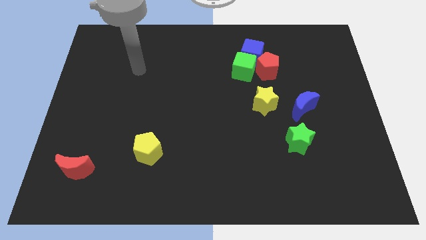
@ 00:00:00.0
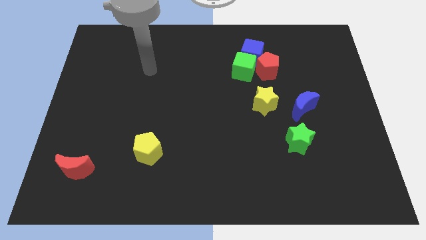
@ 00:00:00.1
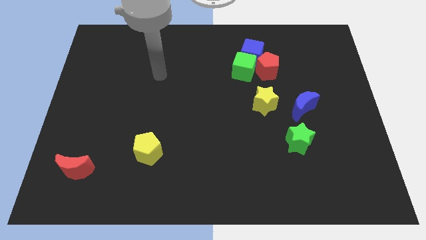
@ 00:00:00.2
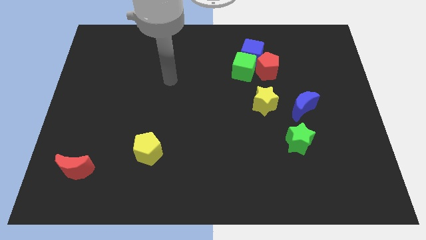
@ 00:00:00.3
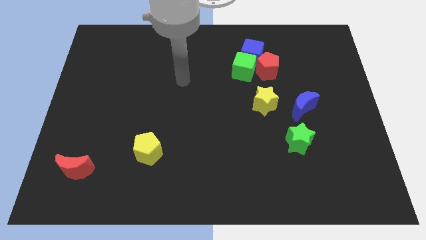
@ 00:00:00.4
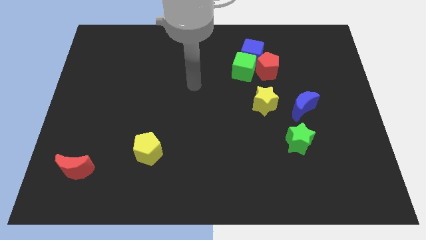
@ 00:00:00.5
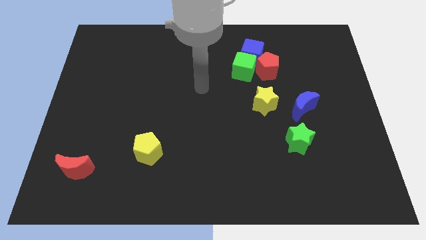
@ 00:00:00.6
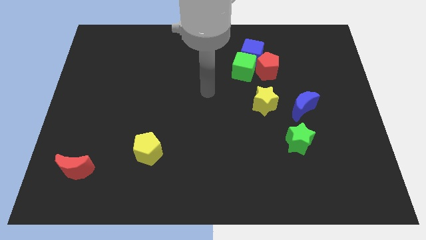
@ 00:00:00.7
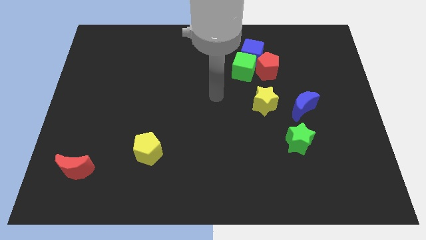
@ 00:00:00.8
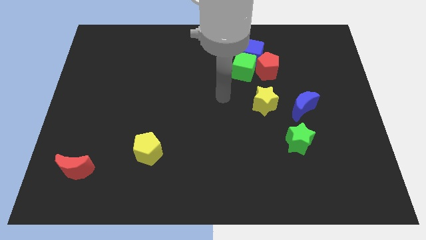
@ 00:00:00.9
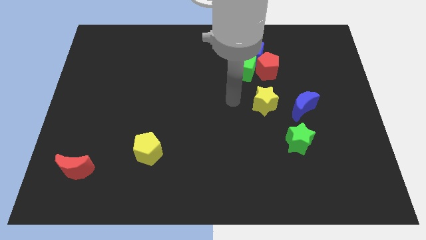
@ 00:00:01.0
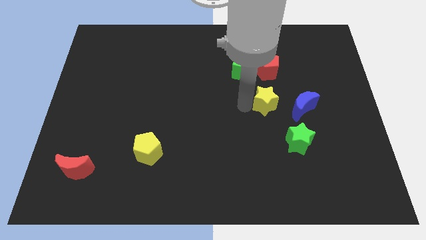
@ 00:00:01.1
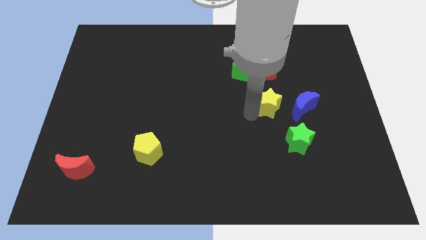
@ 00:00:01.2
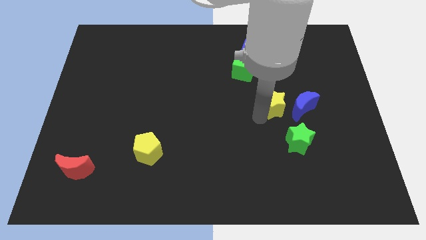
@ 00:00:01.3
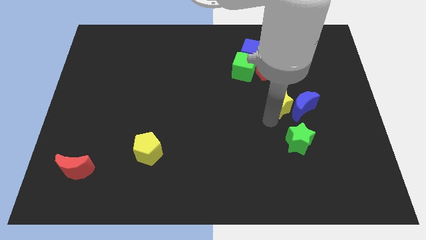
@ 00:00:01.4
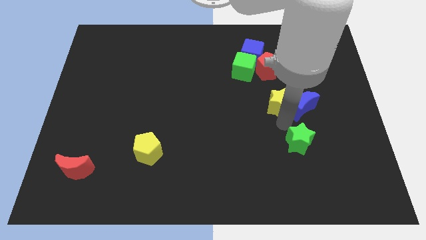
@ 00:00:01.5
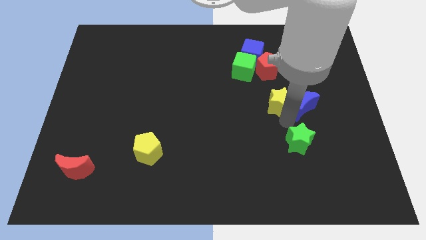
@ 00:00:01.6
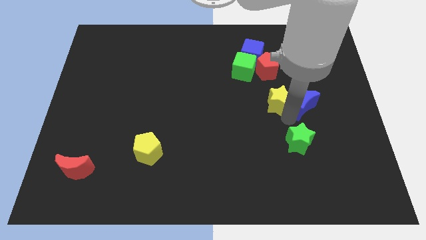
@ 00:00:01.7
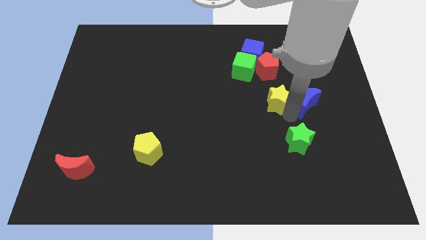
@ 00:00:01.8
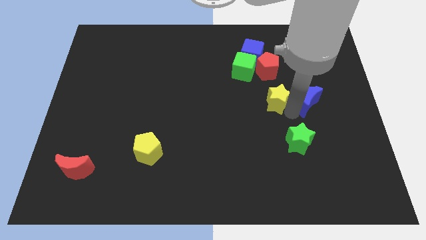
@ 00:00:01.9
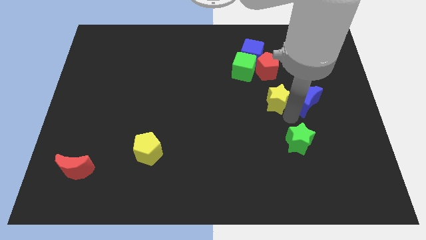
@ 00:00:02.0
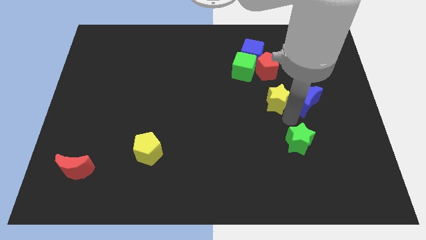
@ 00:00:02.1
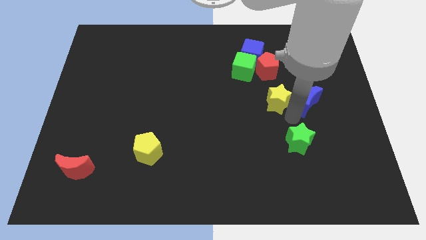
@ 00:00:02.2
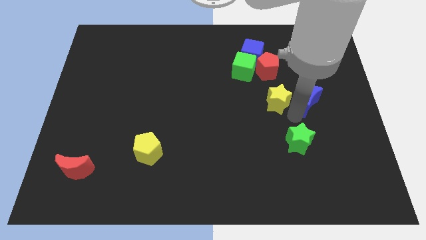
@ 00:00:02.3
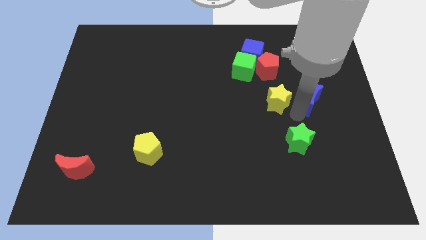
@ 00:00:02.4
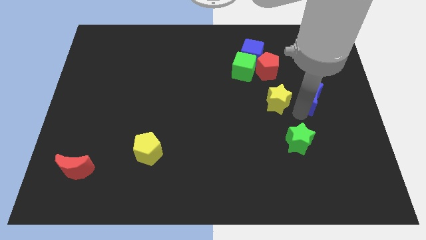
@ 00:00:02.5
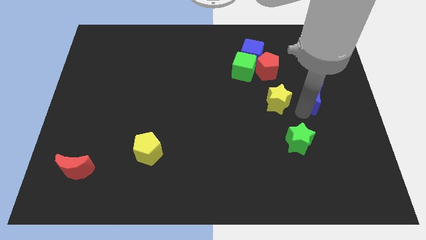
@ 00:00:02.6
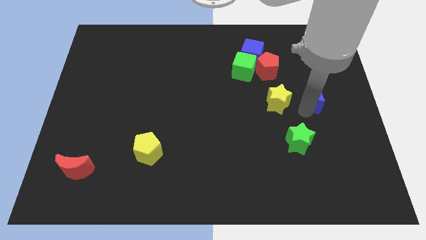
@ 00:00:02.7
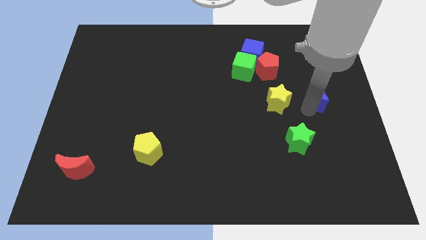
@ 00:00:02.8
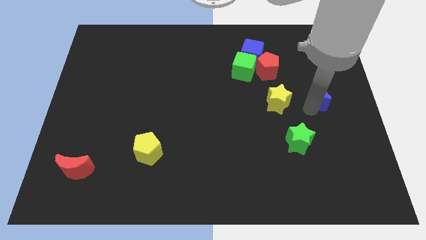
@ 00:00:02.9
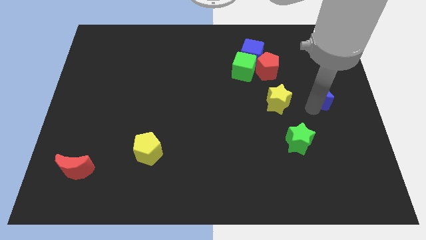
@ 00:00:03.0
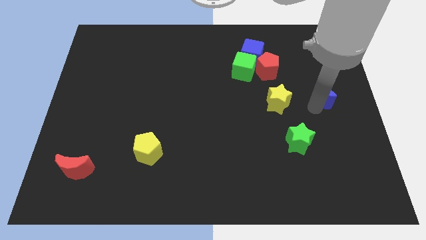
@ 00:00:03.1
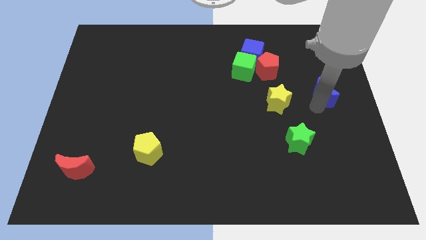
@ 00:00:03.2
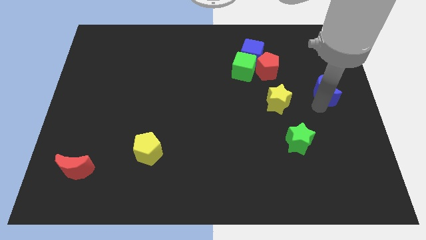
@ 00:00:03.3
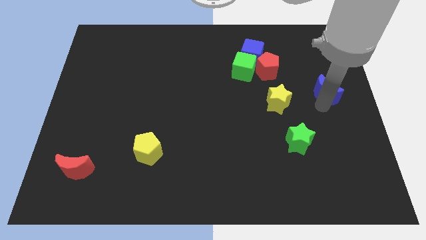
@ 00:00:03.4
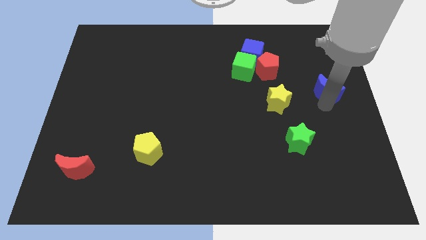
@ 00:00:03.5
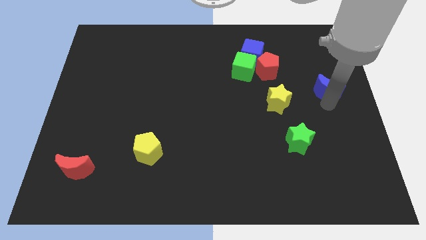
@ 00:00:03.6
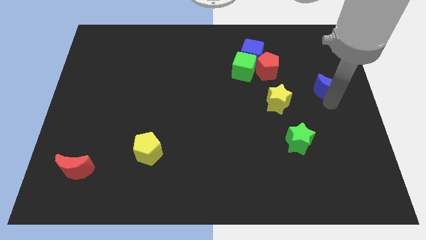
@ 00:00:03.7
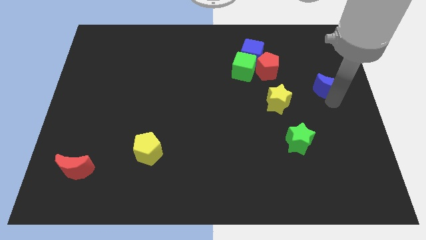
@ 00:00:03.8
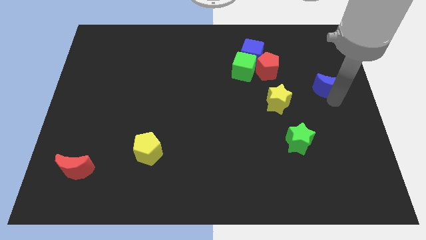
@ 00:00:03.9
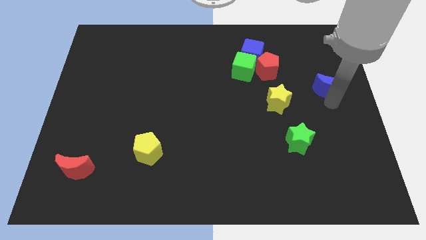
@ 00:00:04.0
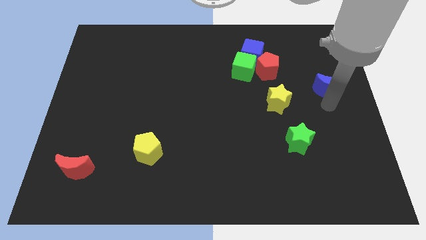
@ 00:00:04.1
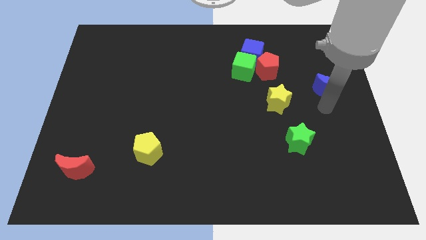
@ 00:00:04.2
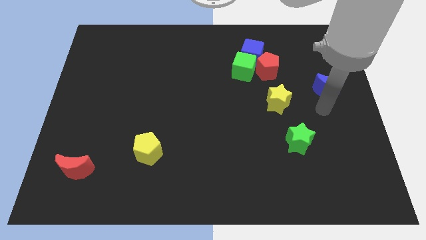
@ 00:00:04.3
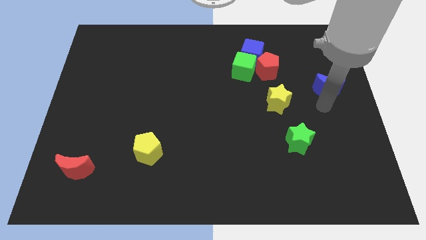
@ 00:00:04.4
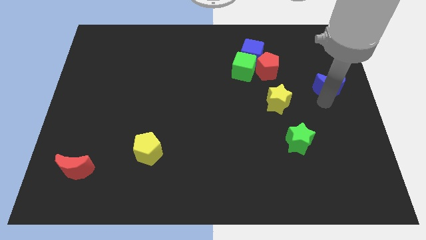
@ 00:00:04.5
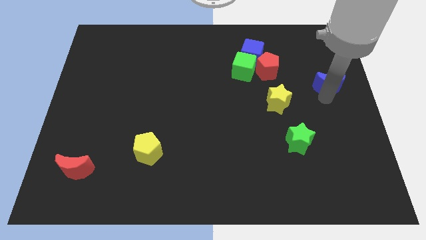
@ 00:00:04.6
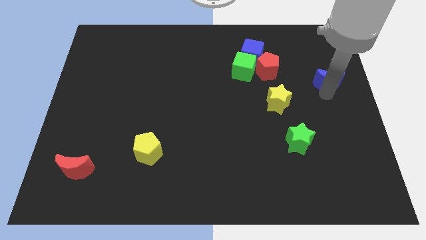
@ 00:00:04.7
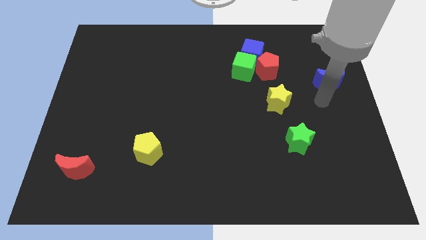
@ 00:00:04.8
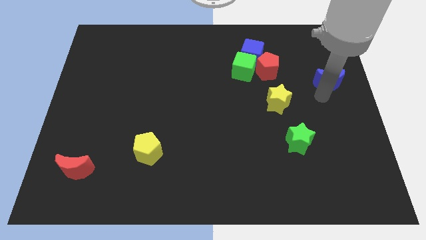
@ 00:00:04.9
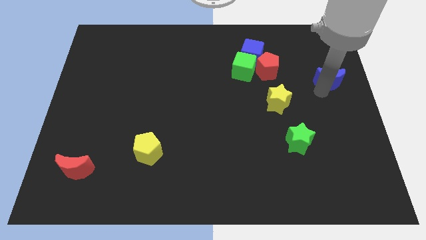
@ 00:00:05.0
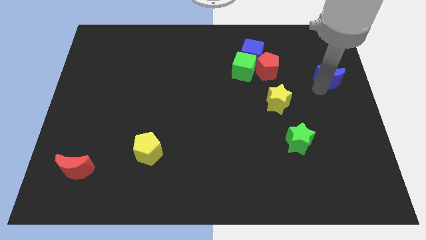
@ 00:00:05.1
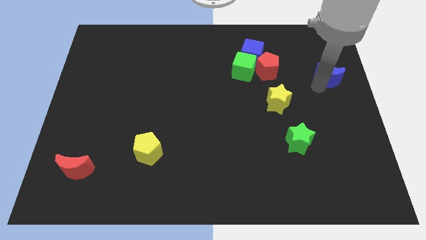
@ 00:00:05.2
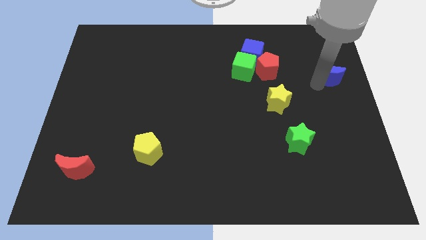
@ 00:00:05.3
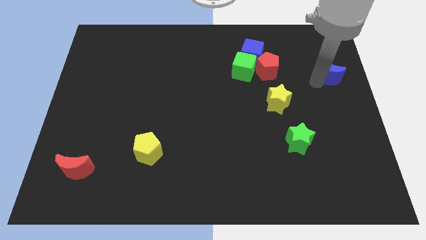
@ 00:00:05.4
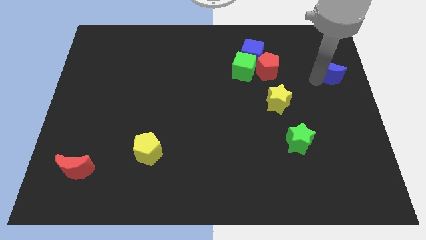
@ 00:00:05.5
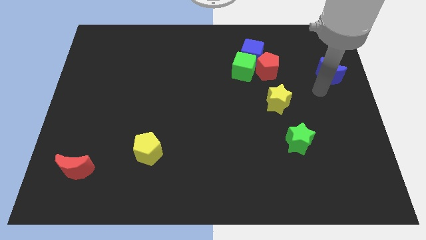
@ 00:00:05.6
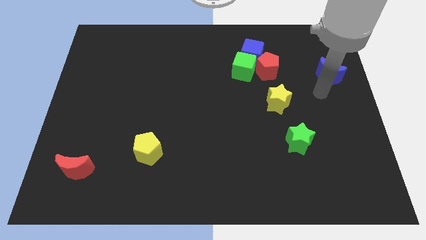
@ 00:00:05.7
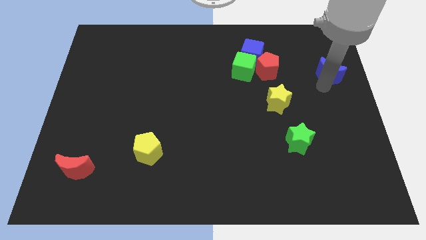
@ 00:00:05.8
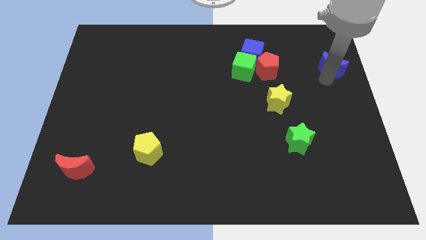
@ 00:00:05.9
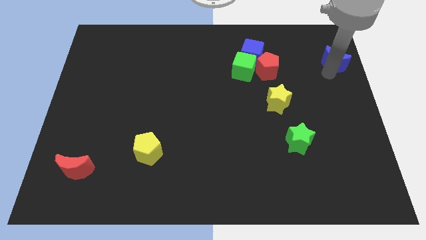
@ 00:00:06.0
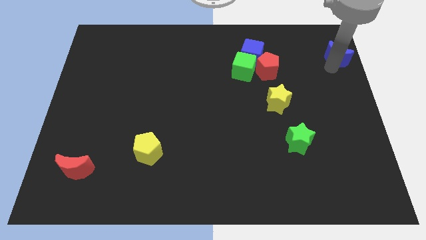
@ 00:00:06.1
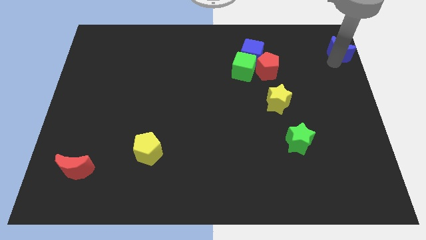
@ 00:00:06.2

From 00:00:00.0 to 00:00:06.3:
slide the blue moon to the top right of the board
